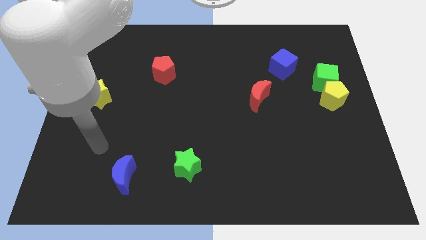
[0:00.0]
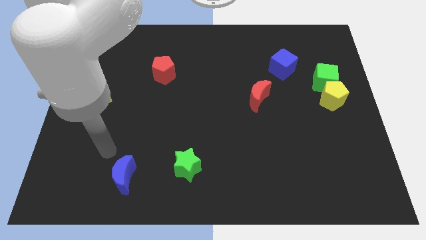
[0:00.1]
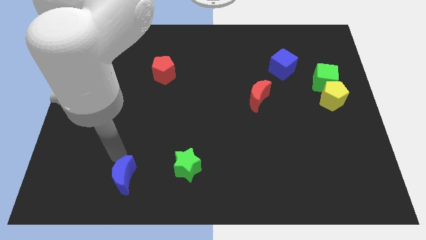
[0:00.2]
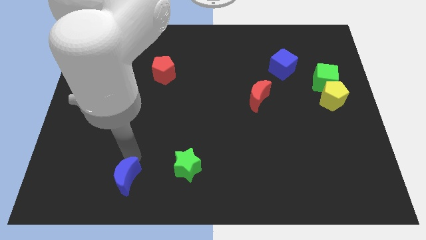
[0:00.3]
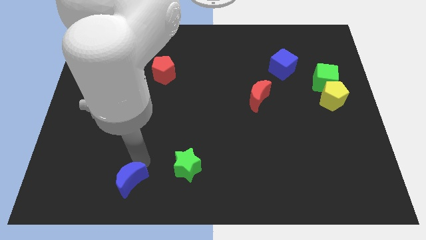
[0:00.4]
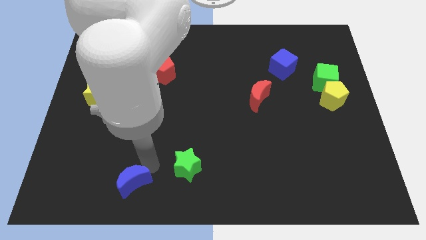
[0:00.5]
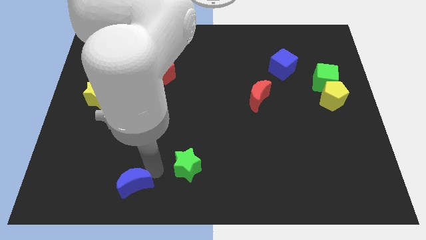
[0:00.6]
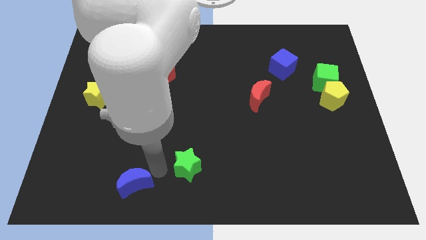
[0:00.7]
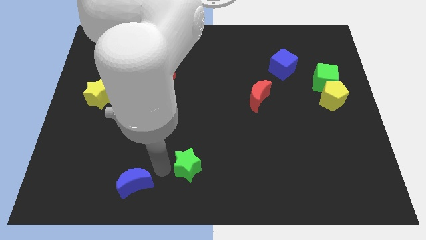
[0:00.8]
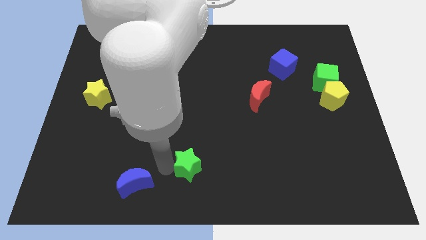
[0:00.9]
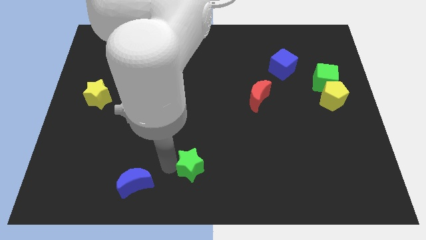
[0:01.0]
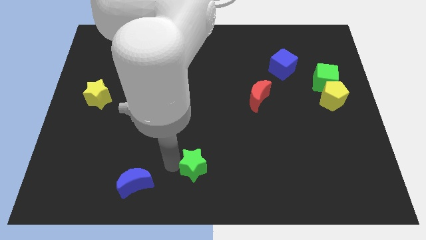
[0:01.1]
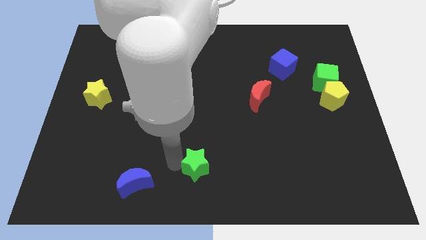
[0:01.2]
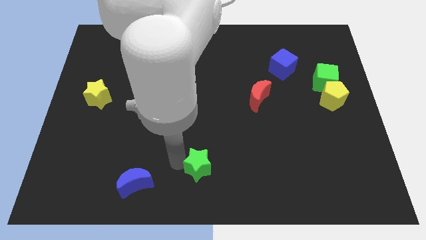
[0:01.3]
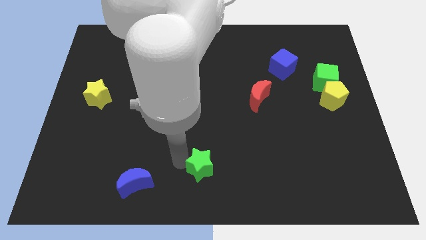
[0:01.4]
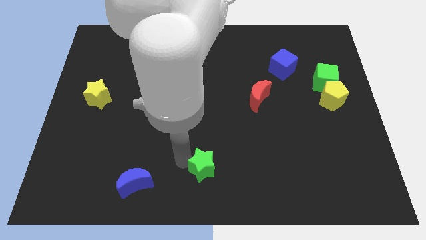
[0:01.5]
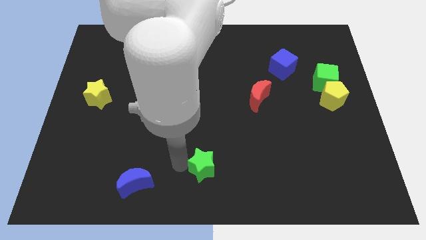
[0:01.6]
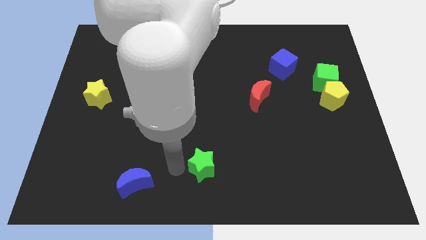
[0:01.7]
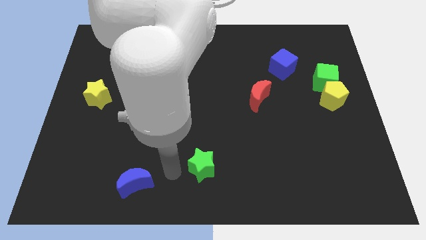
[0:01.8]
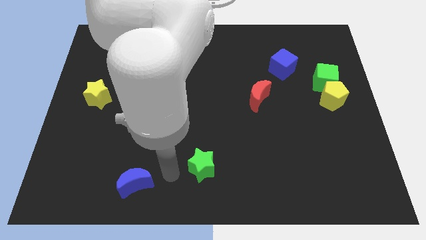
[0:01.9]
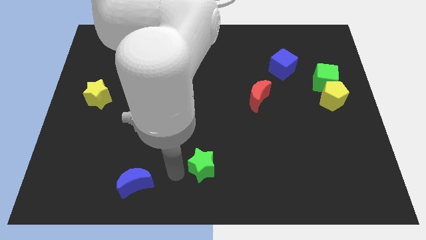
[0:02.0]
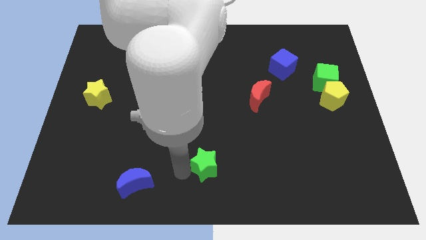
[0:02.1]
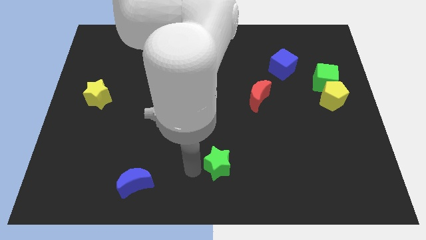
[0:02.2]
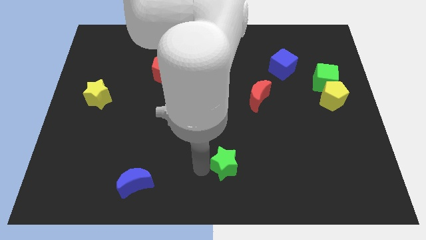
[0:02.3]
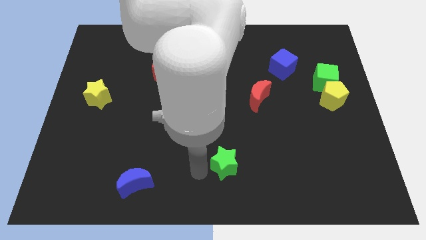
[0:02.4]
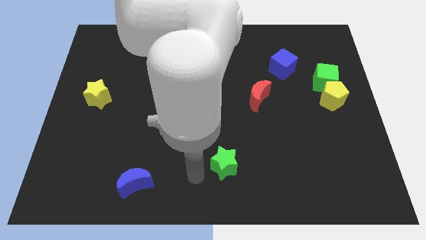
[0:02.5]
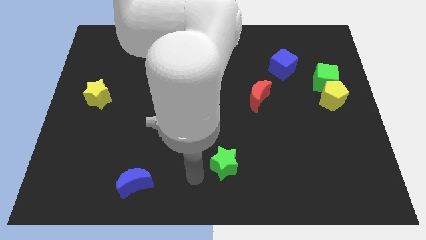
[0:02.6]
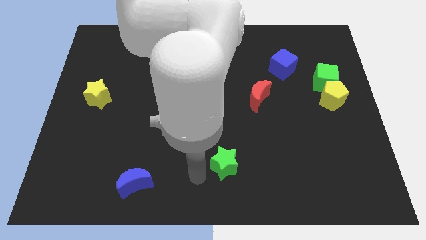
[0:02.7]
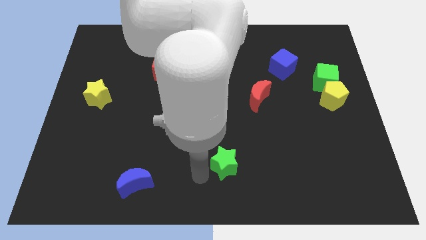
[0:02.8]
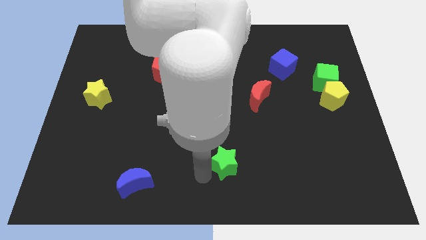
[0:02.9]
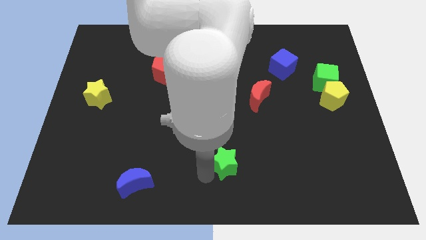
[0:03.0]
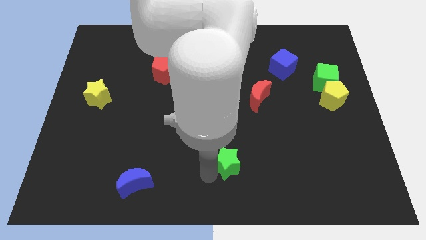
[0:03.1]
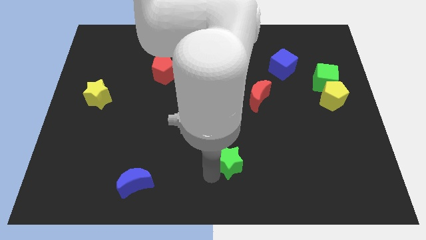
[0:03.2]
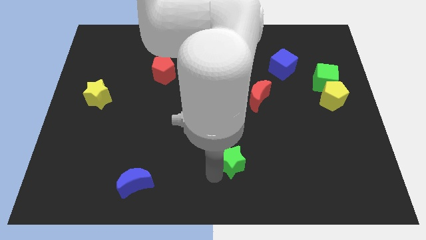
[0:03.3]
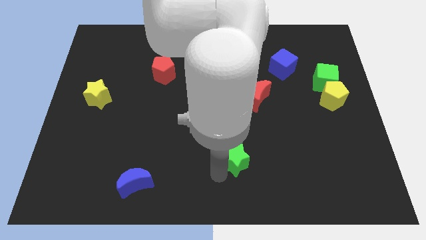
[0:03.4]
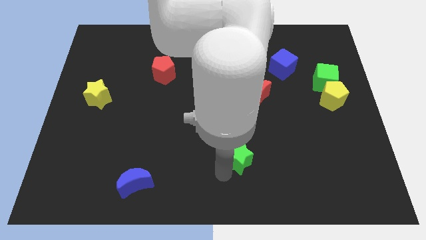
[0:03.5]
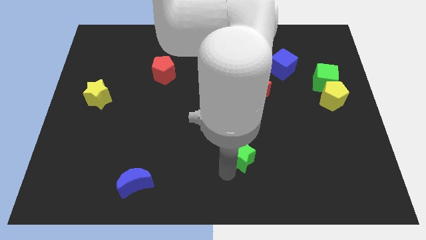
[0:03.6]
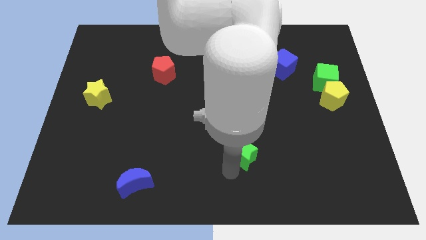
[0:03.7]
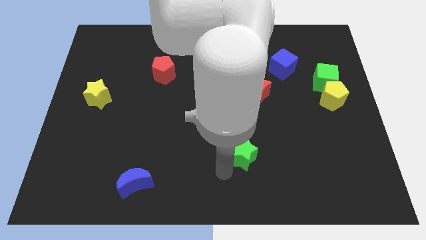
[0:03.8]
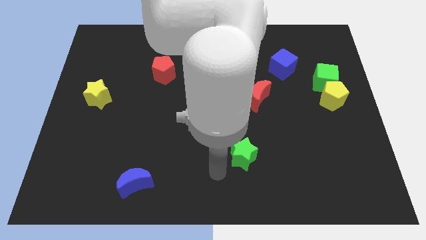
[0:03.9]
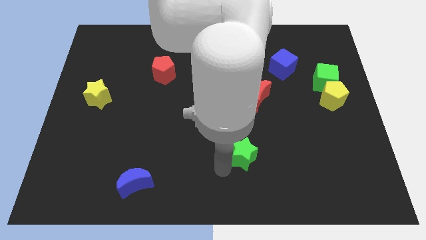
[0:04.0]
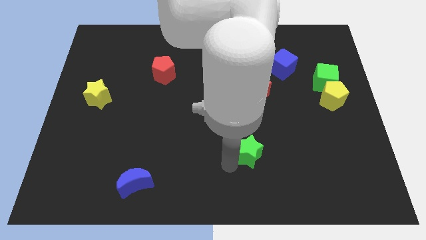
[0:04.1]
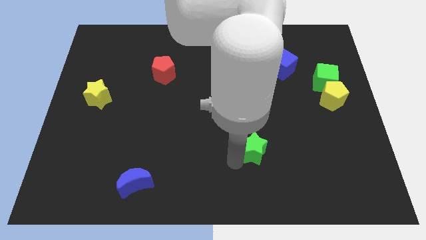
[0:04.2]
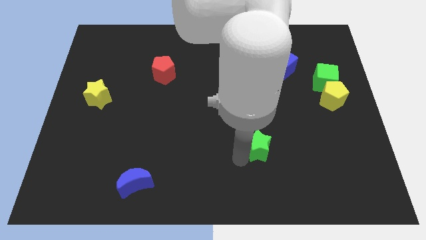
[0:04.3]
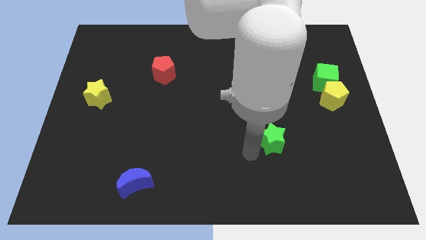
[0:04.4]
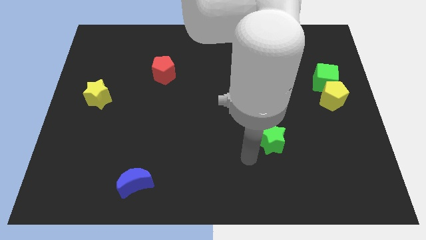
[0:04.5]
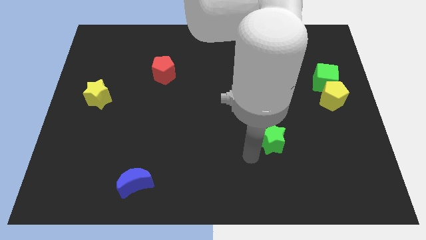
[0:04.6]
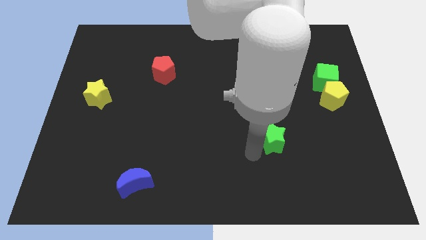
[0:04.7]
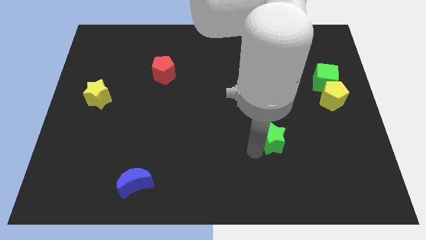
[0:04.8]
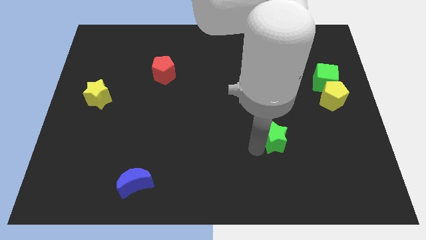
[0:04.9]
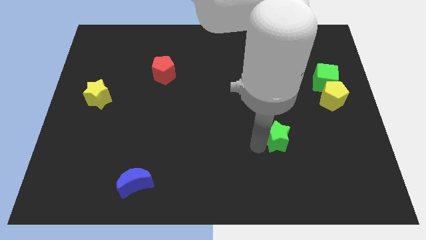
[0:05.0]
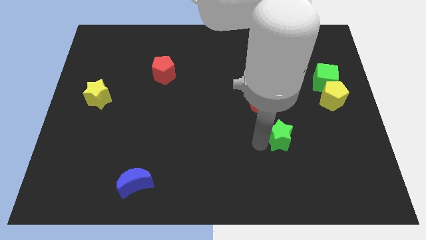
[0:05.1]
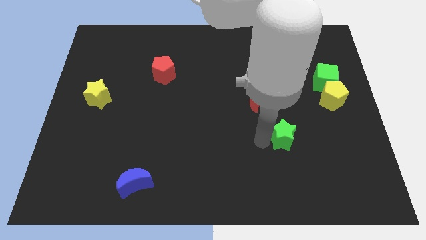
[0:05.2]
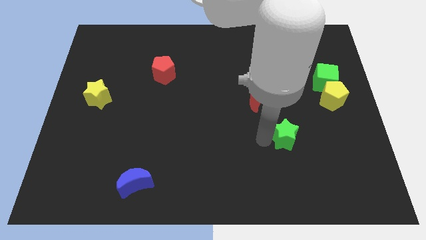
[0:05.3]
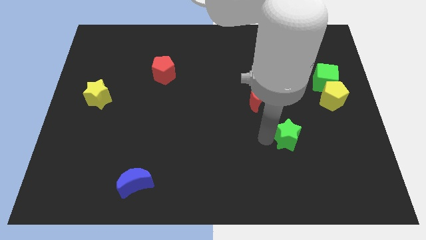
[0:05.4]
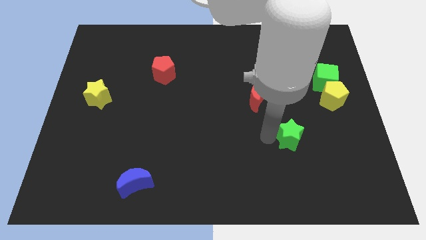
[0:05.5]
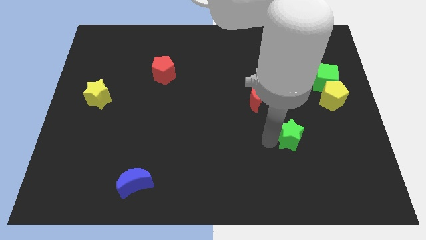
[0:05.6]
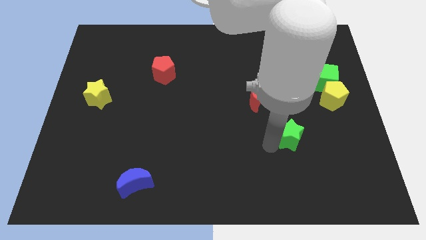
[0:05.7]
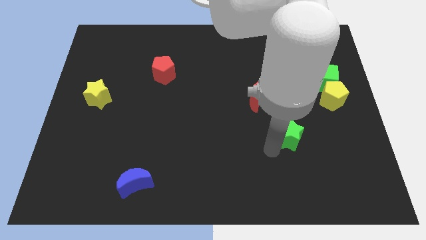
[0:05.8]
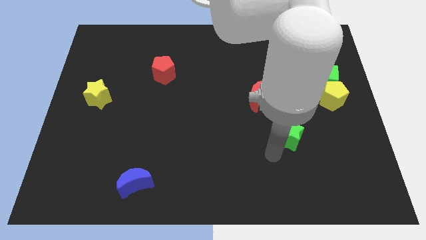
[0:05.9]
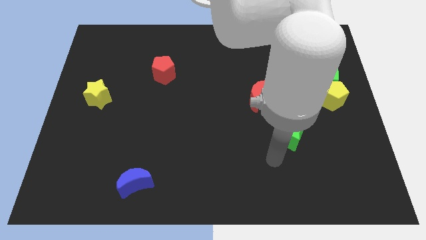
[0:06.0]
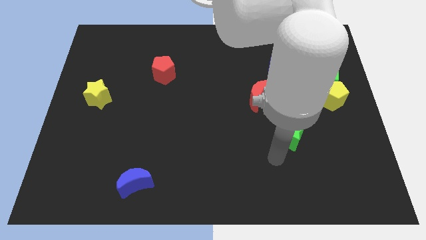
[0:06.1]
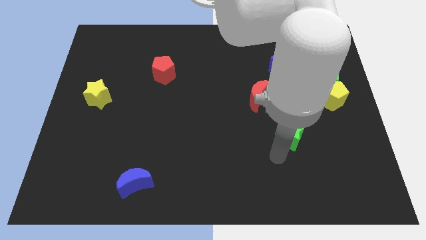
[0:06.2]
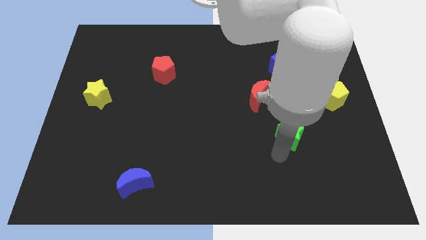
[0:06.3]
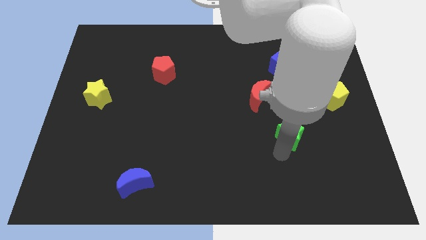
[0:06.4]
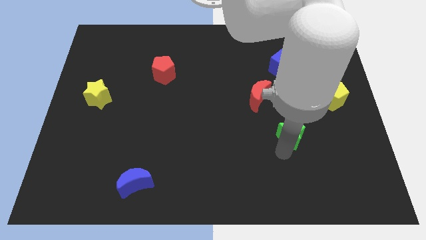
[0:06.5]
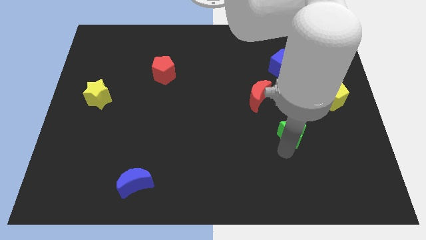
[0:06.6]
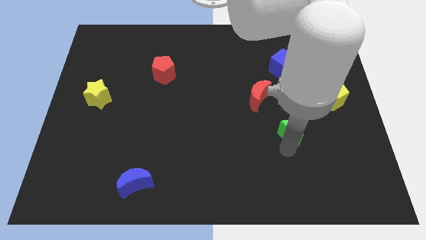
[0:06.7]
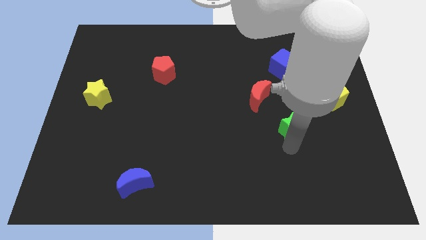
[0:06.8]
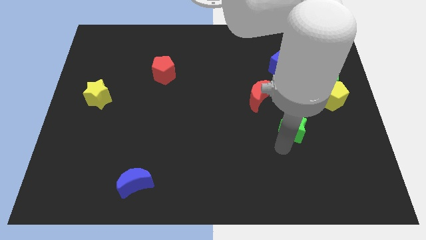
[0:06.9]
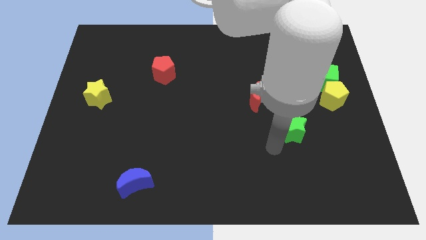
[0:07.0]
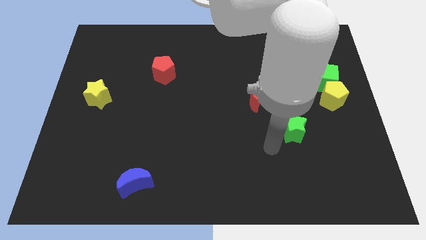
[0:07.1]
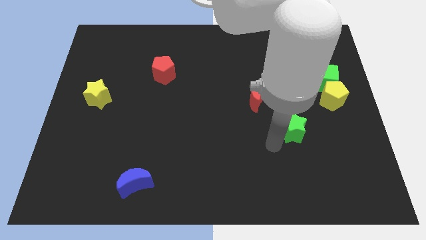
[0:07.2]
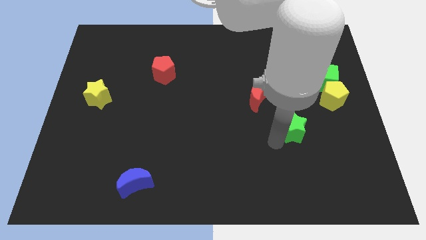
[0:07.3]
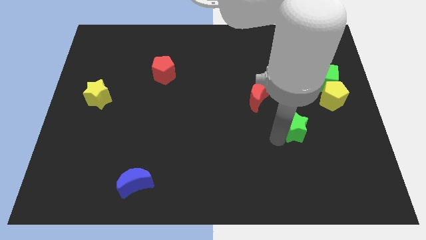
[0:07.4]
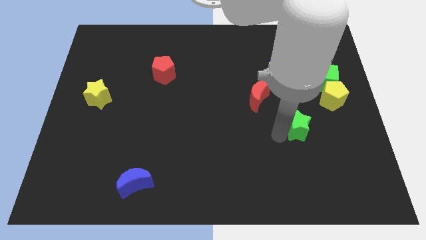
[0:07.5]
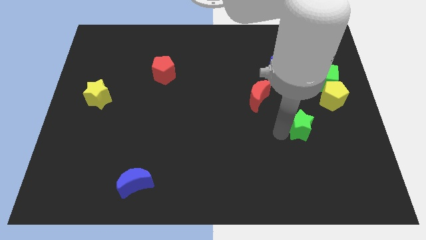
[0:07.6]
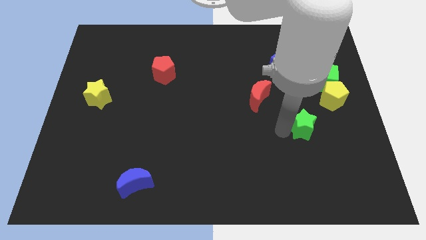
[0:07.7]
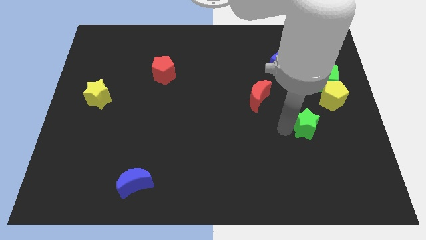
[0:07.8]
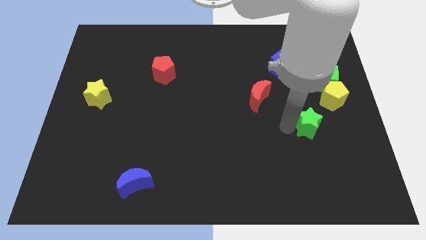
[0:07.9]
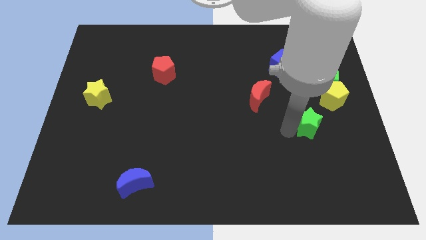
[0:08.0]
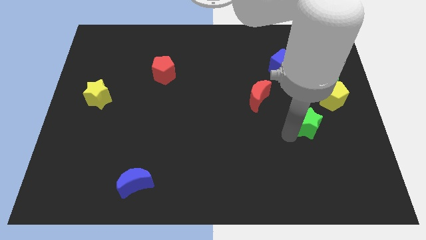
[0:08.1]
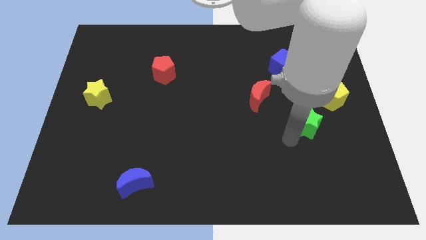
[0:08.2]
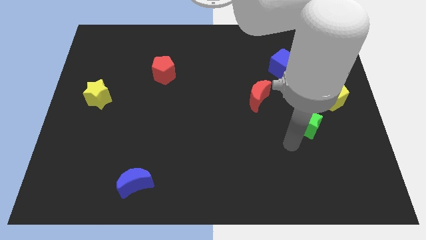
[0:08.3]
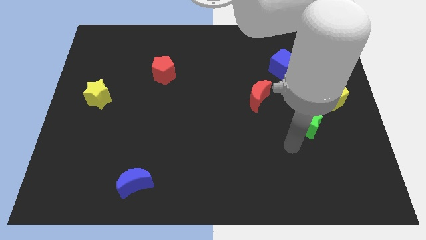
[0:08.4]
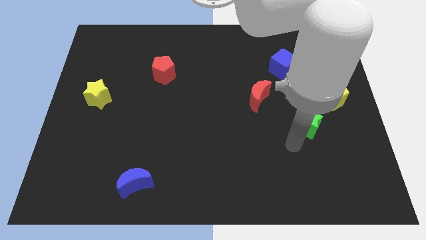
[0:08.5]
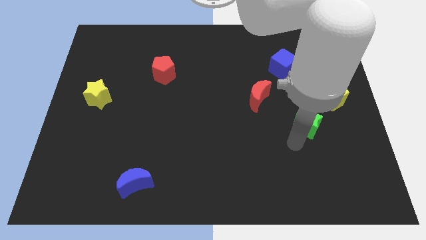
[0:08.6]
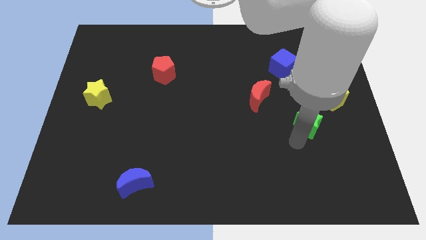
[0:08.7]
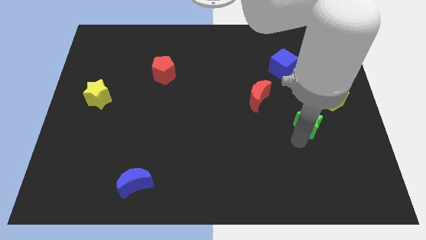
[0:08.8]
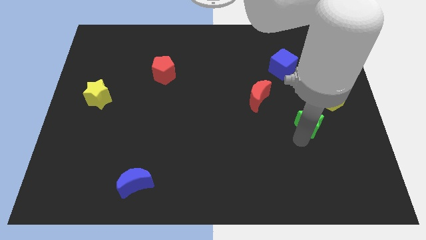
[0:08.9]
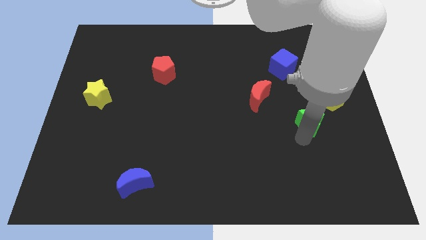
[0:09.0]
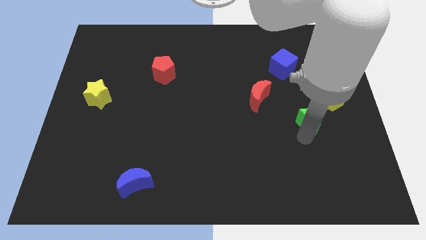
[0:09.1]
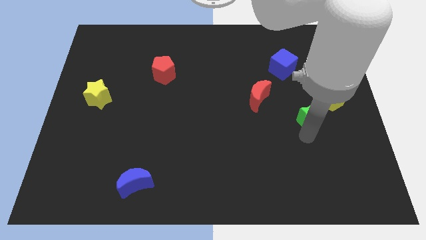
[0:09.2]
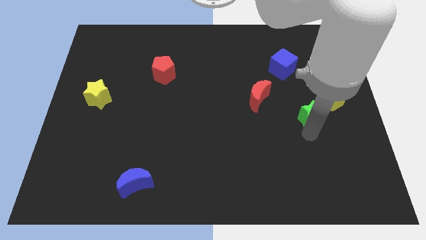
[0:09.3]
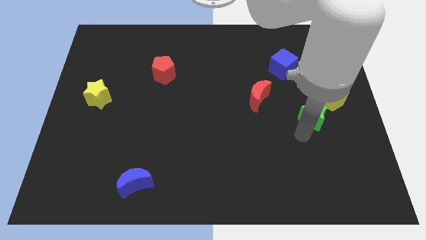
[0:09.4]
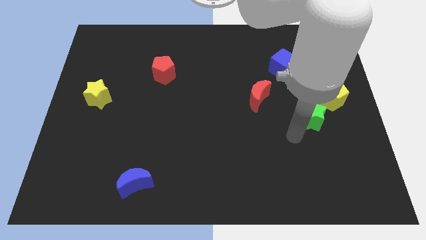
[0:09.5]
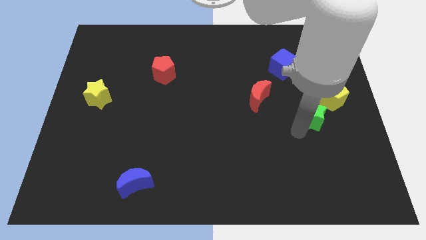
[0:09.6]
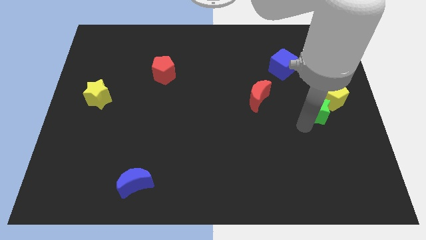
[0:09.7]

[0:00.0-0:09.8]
put the green star towards the yellow pentagon
